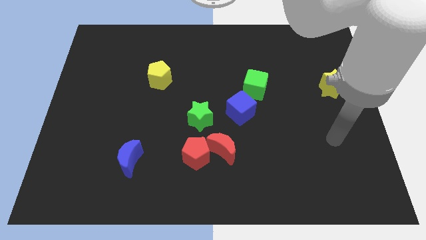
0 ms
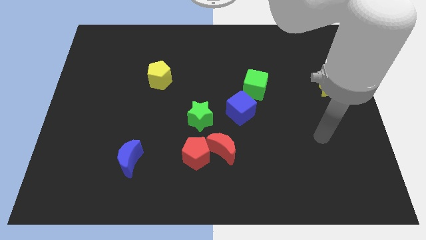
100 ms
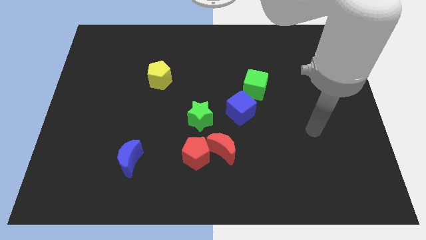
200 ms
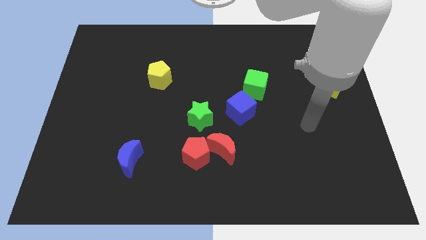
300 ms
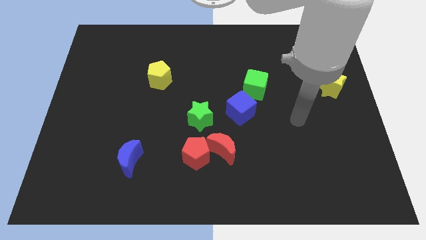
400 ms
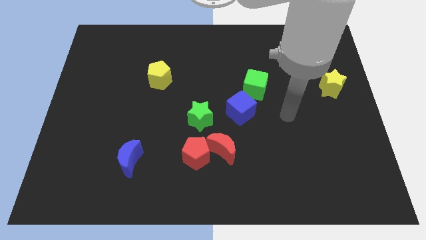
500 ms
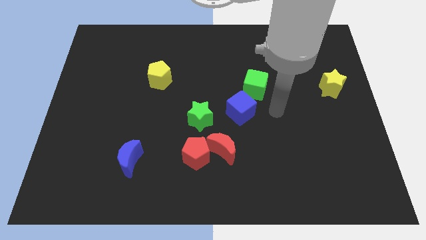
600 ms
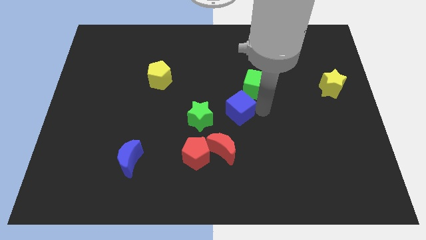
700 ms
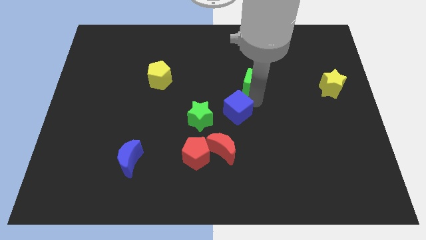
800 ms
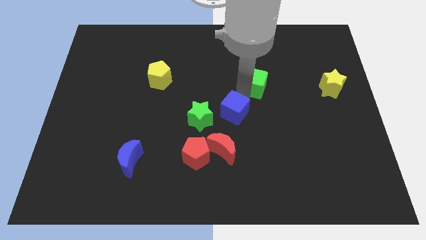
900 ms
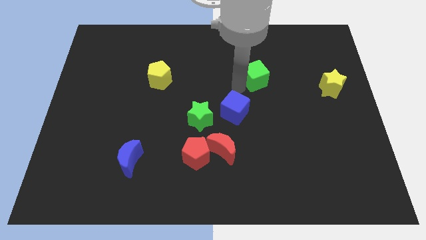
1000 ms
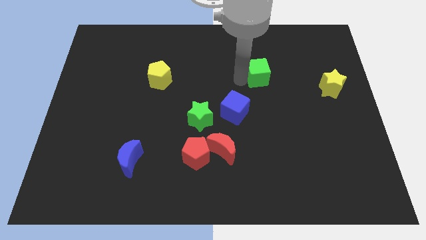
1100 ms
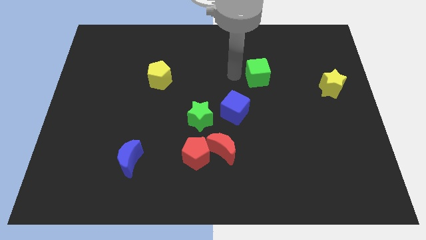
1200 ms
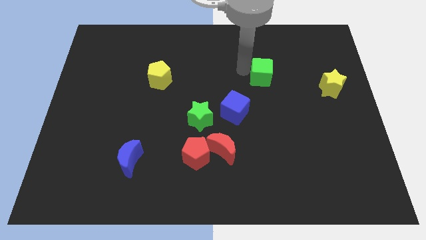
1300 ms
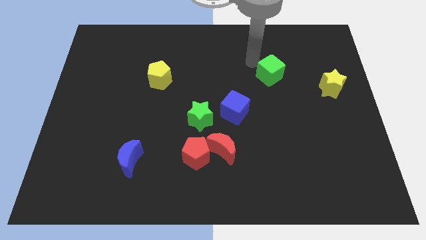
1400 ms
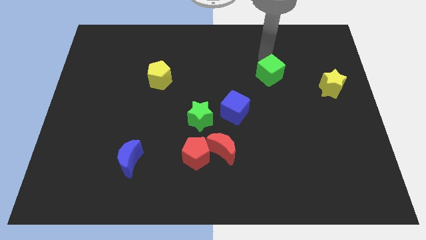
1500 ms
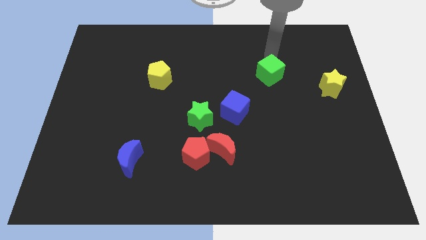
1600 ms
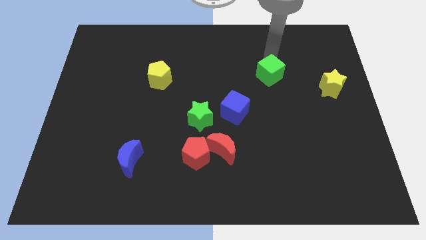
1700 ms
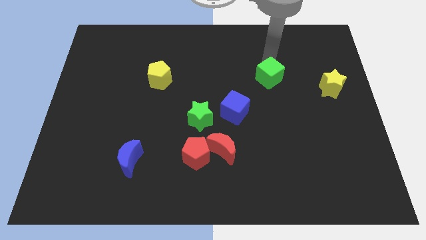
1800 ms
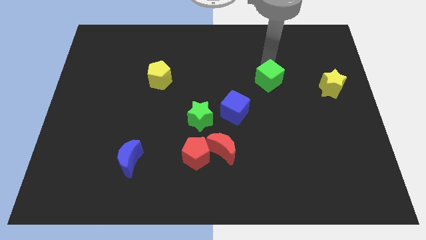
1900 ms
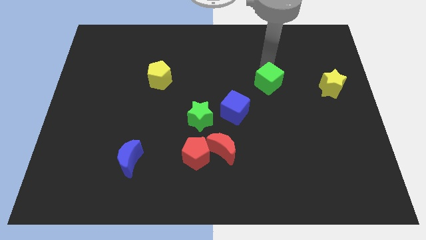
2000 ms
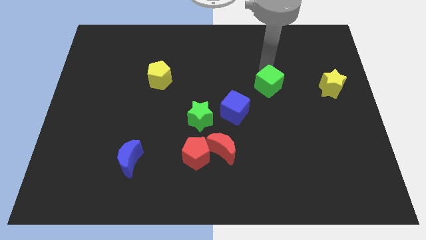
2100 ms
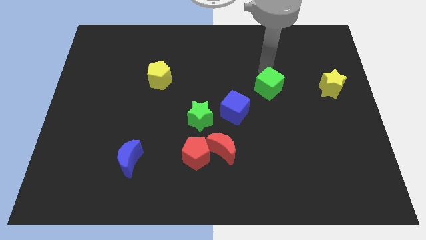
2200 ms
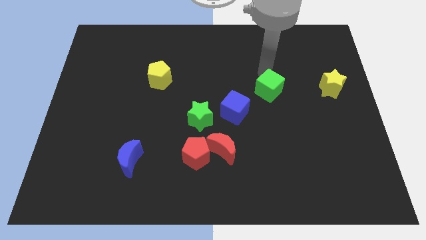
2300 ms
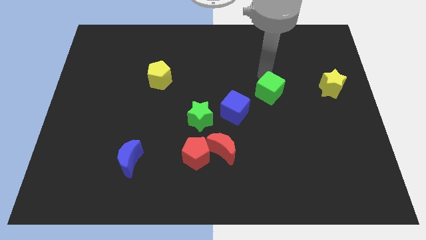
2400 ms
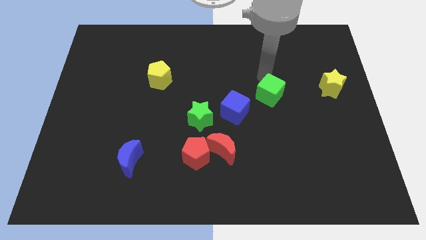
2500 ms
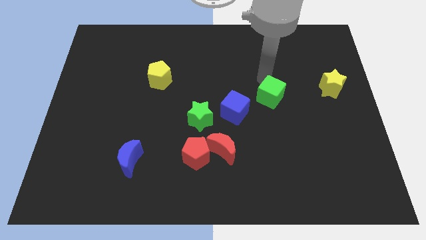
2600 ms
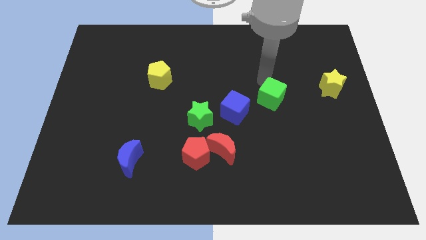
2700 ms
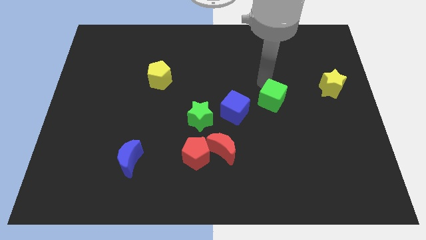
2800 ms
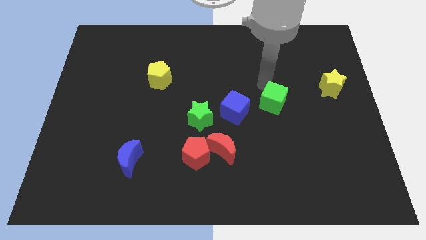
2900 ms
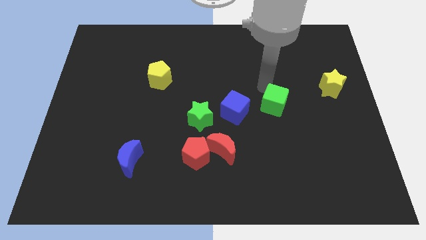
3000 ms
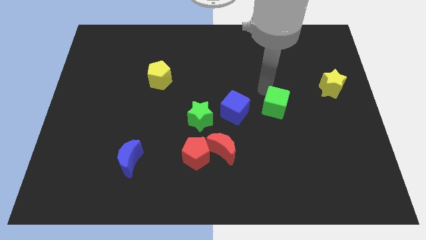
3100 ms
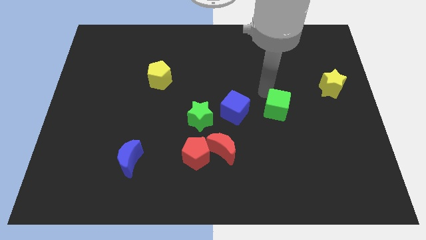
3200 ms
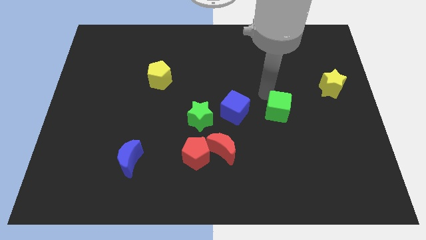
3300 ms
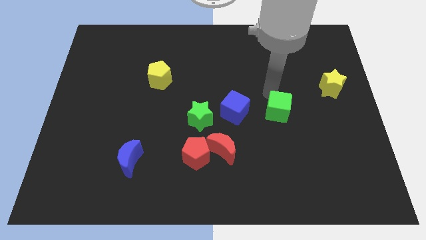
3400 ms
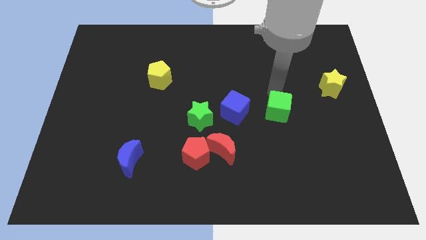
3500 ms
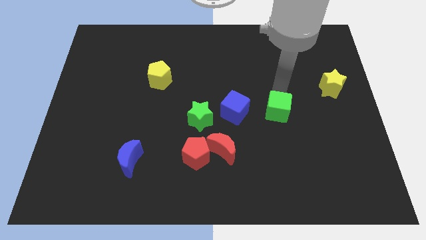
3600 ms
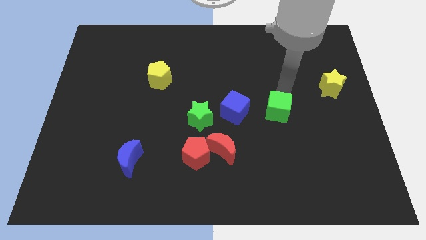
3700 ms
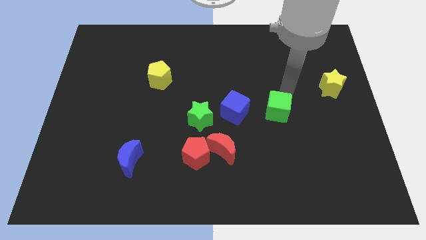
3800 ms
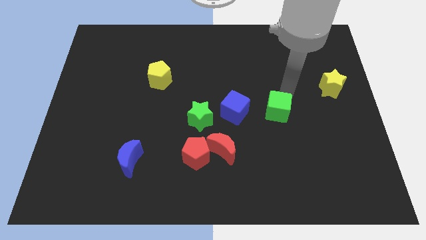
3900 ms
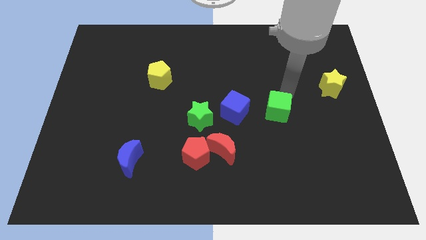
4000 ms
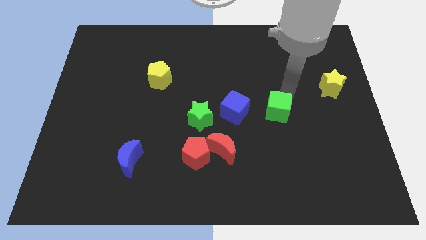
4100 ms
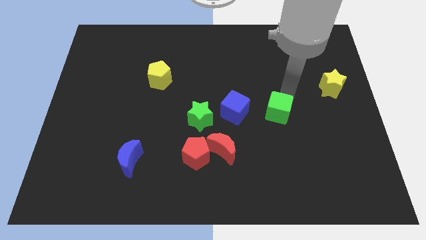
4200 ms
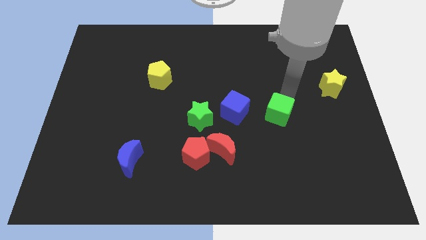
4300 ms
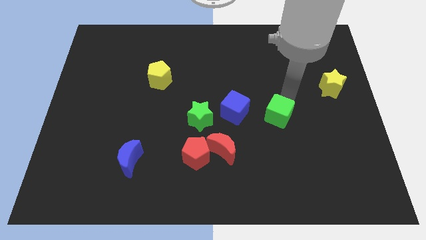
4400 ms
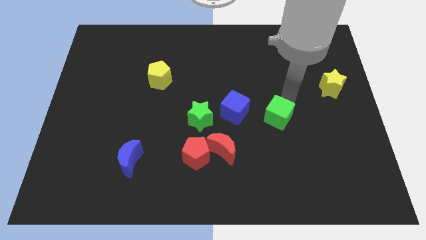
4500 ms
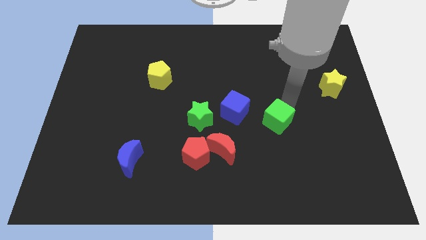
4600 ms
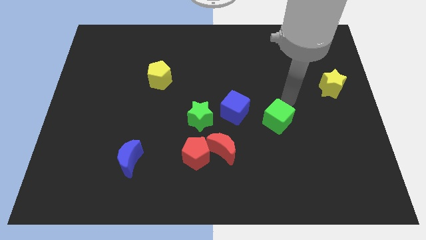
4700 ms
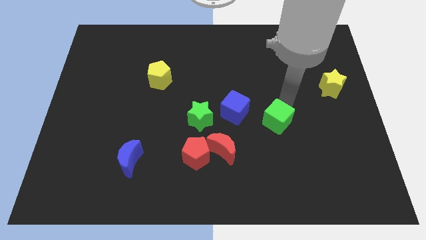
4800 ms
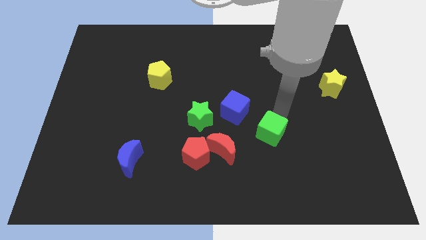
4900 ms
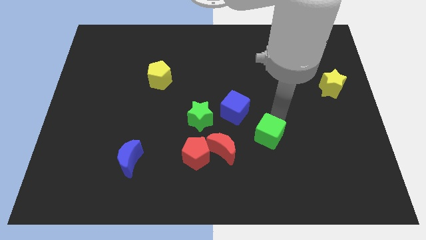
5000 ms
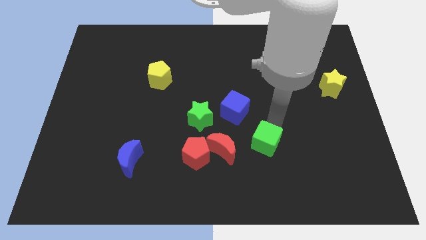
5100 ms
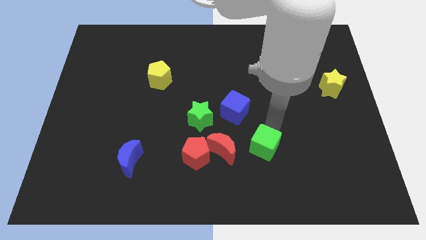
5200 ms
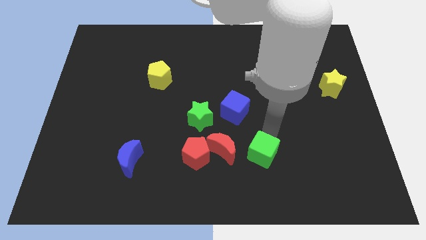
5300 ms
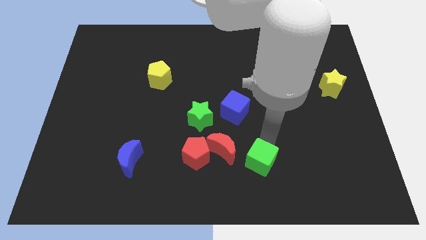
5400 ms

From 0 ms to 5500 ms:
slide the green cube to the bottom right side of the red moon

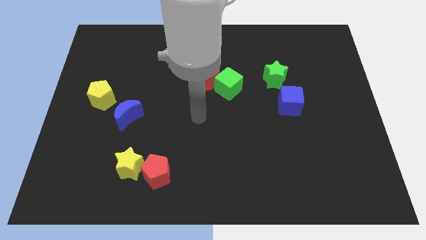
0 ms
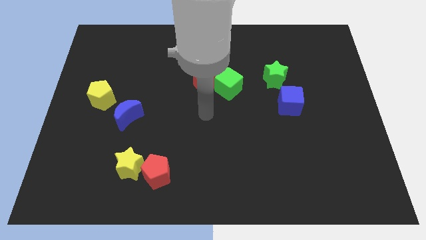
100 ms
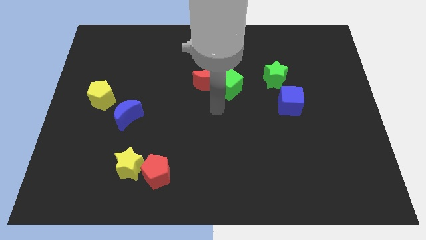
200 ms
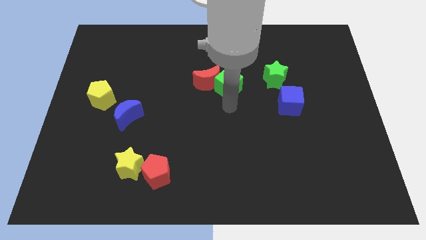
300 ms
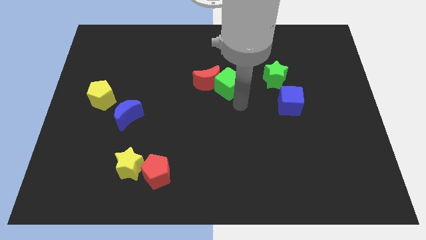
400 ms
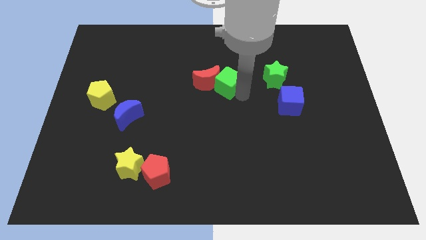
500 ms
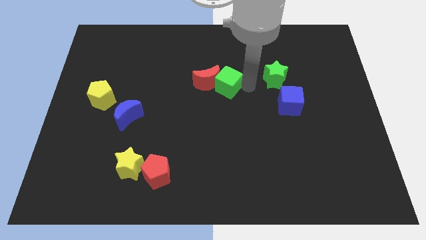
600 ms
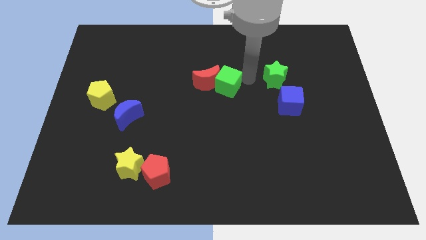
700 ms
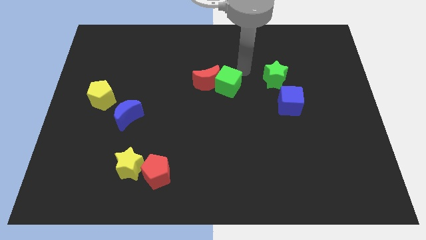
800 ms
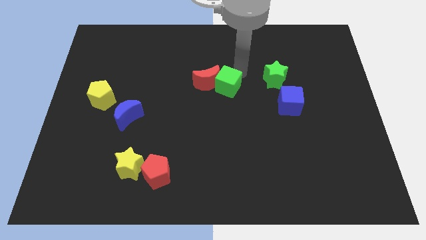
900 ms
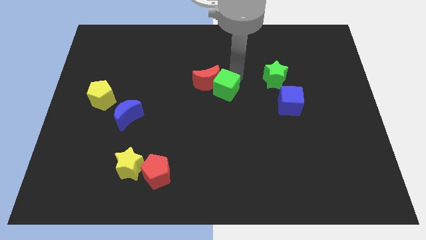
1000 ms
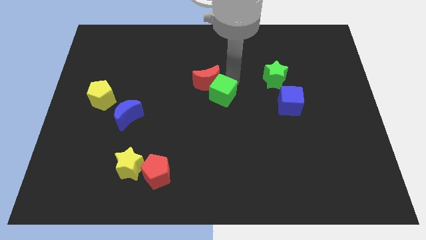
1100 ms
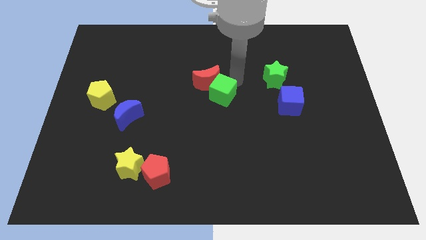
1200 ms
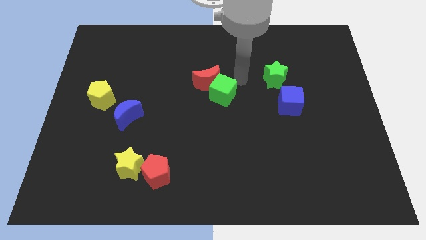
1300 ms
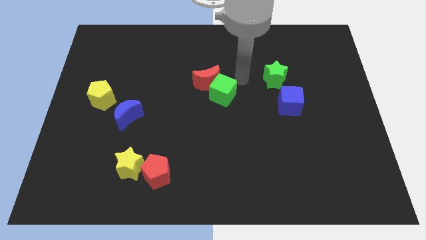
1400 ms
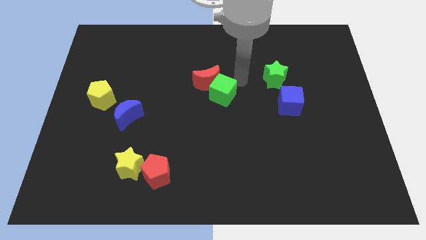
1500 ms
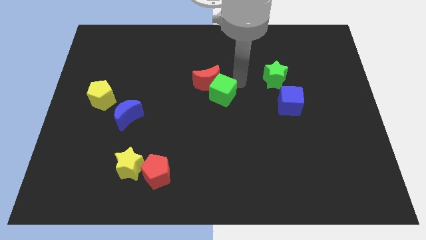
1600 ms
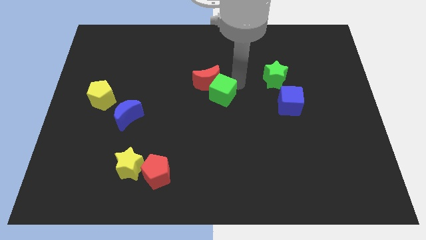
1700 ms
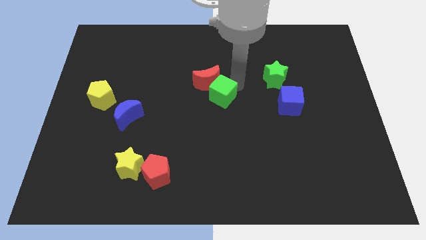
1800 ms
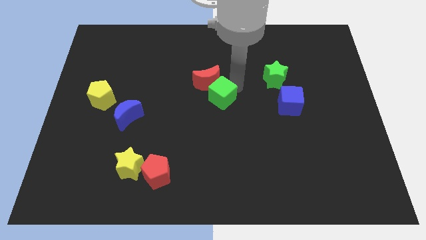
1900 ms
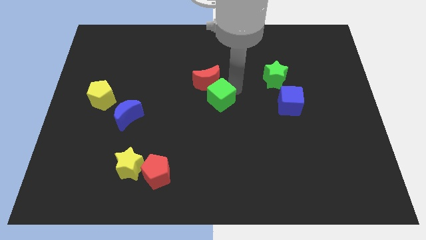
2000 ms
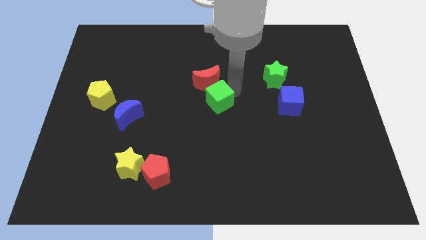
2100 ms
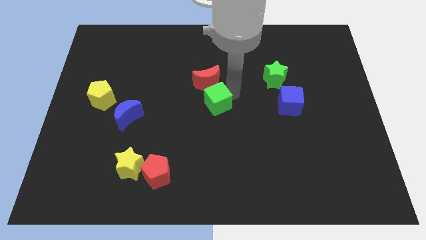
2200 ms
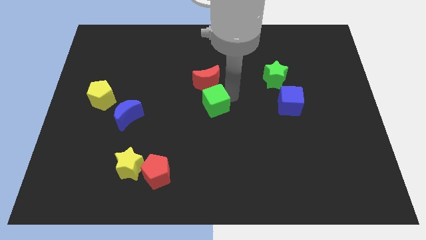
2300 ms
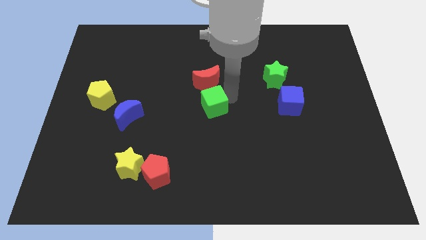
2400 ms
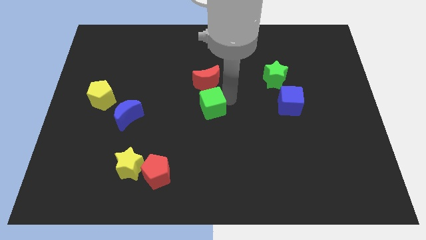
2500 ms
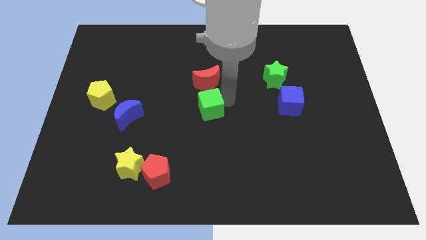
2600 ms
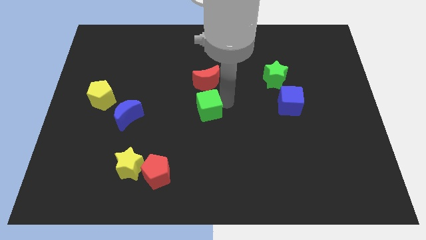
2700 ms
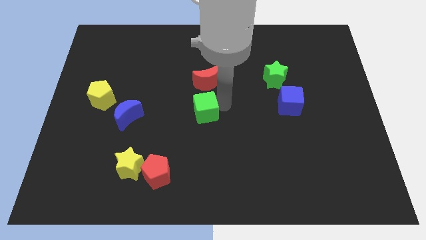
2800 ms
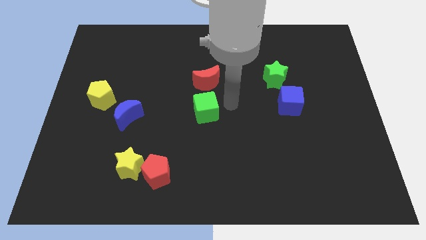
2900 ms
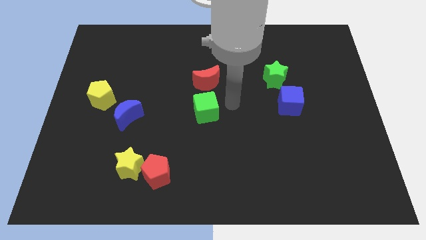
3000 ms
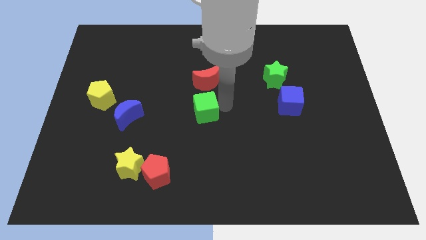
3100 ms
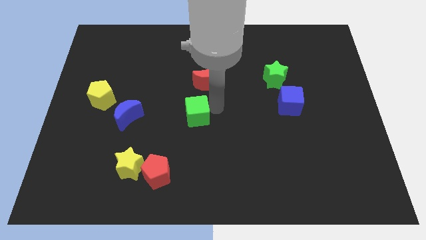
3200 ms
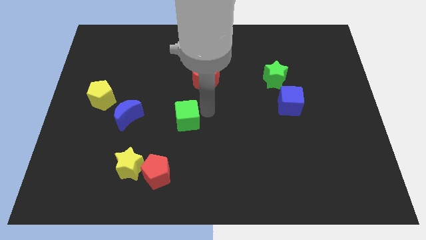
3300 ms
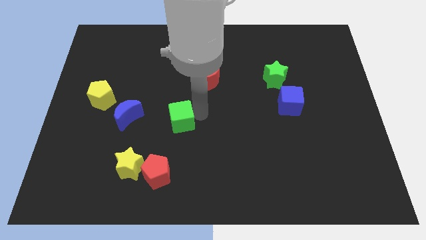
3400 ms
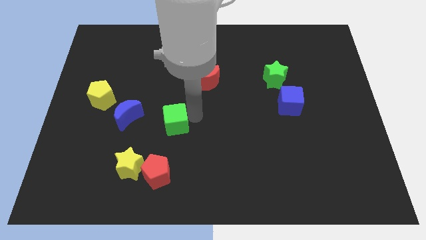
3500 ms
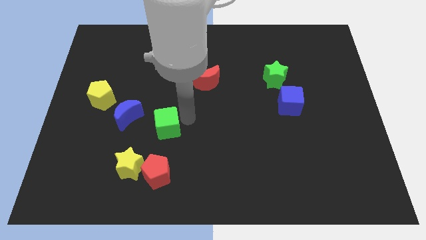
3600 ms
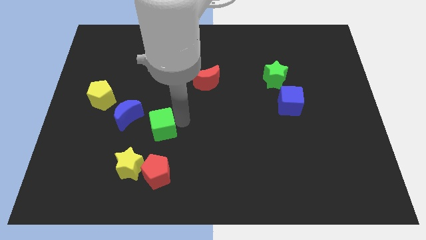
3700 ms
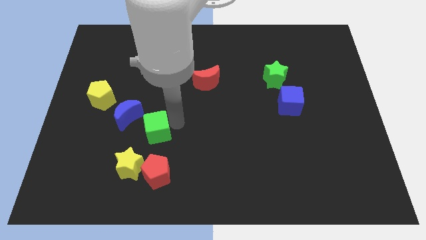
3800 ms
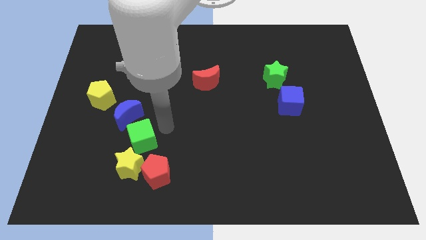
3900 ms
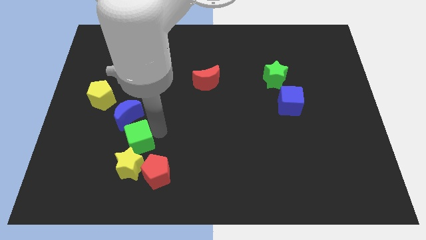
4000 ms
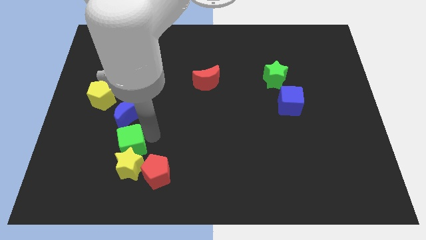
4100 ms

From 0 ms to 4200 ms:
slide the green cube to the top left of the yellow star
